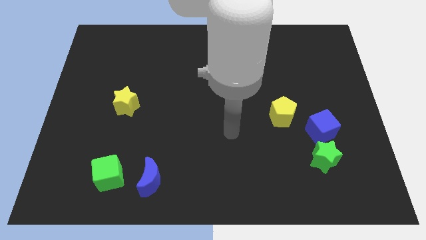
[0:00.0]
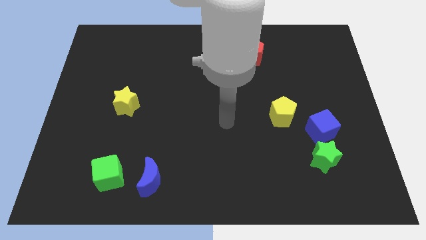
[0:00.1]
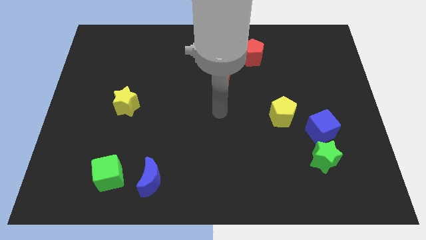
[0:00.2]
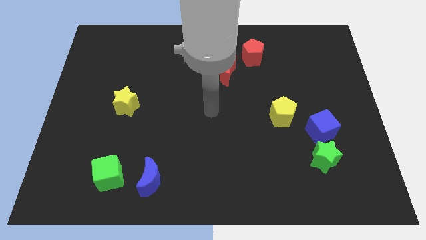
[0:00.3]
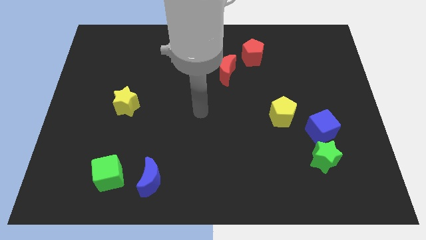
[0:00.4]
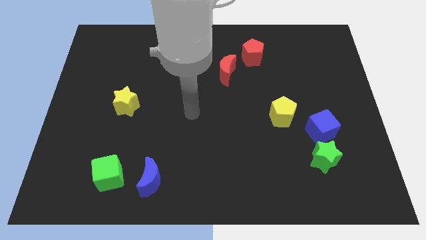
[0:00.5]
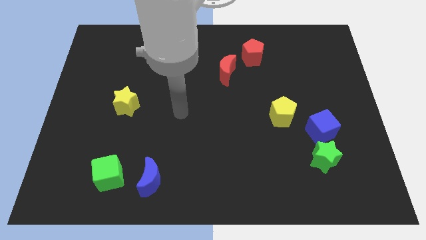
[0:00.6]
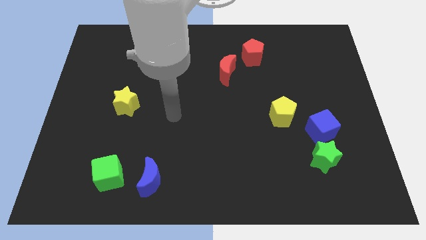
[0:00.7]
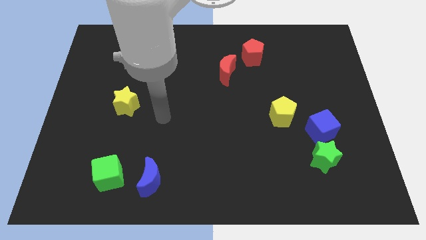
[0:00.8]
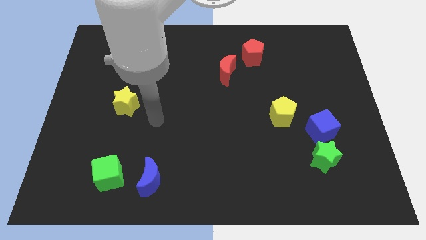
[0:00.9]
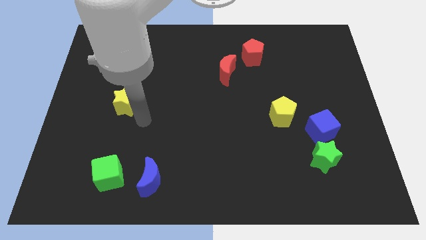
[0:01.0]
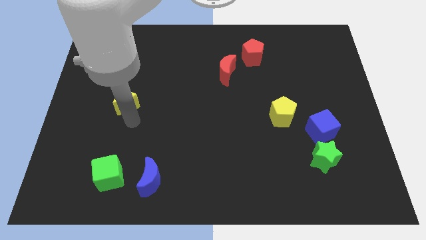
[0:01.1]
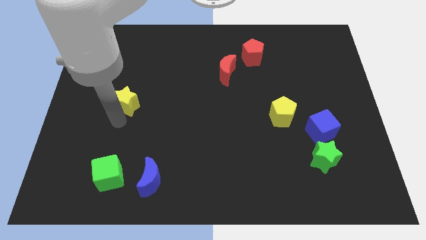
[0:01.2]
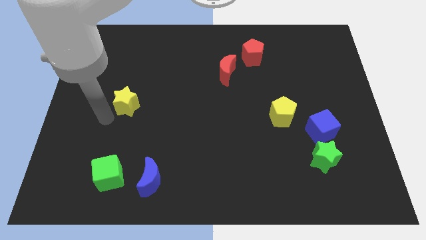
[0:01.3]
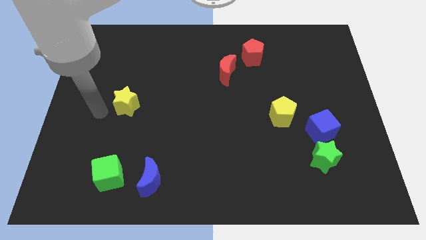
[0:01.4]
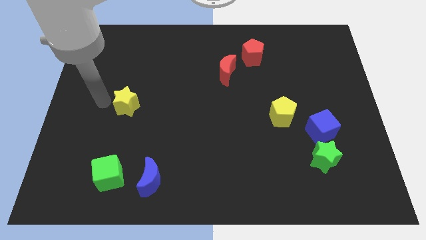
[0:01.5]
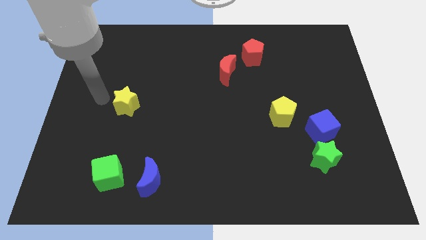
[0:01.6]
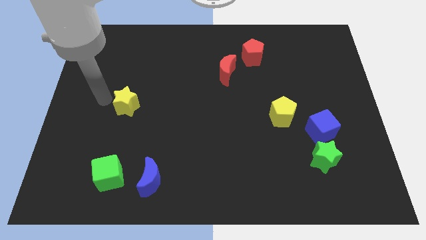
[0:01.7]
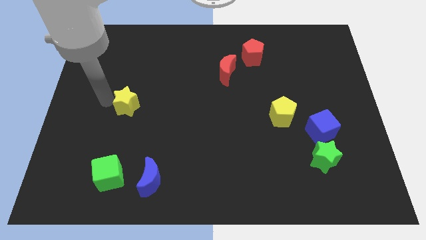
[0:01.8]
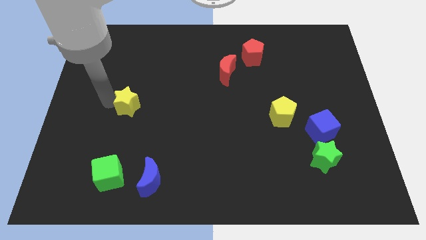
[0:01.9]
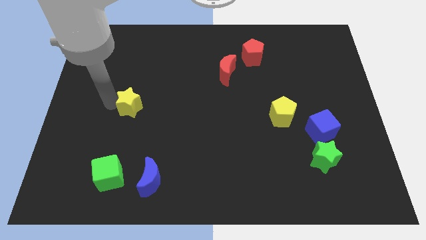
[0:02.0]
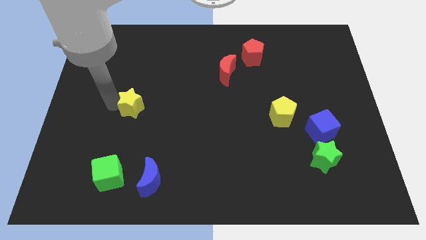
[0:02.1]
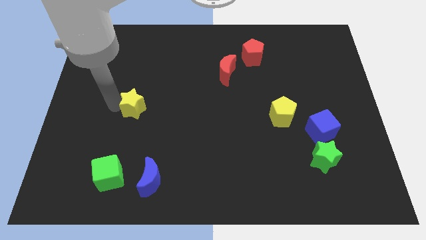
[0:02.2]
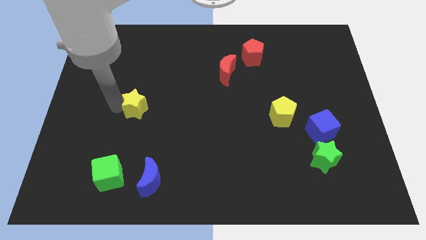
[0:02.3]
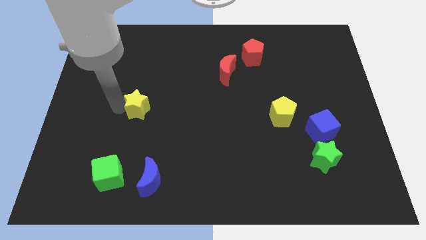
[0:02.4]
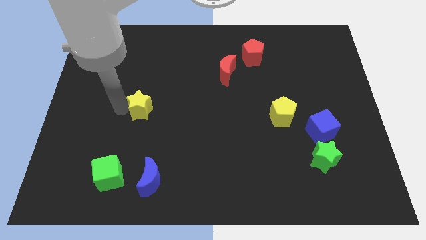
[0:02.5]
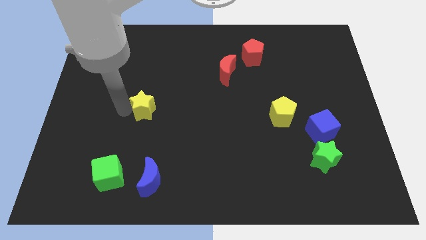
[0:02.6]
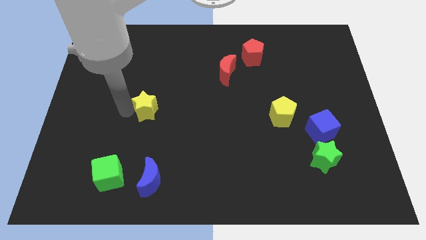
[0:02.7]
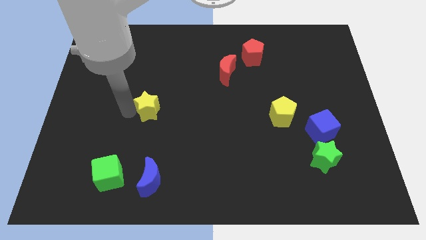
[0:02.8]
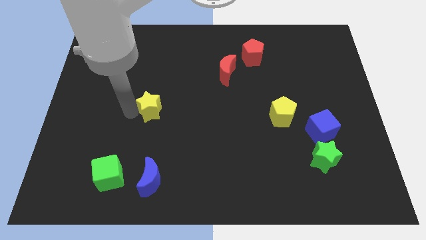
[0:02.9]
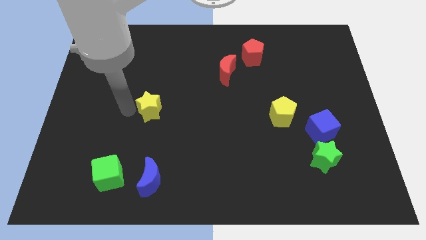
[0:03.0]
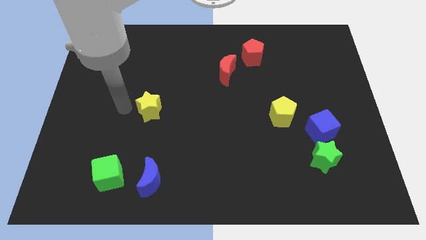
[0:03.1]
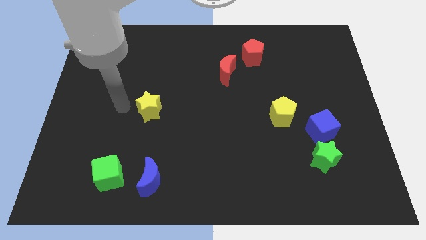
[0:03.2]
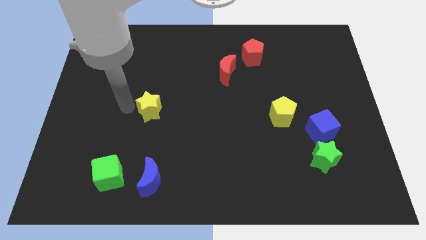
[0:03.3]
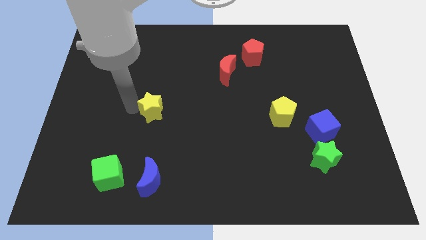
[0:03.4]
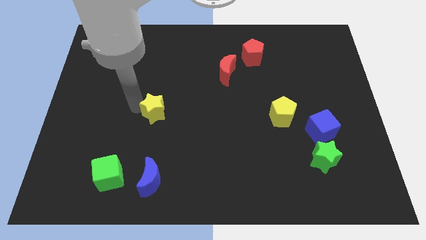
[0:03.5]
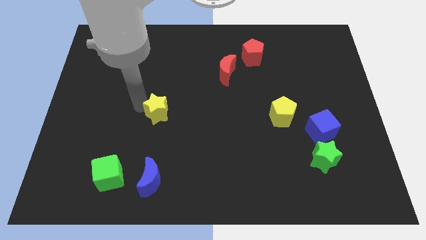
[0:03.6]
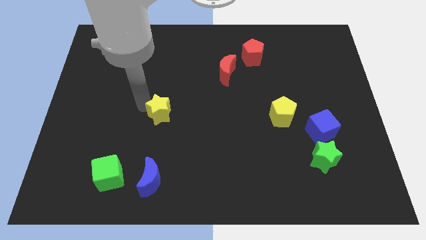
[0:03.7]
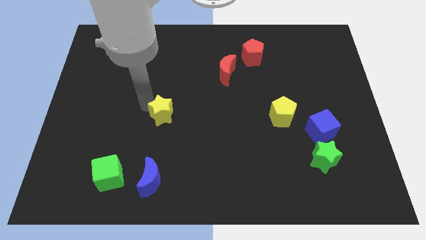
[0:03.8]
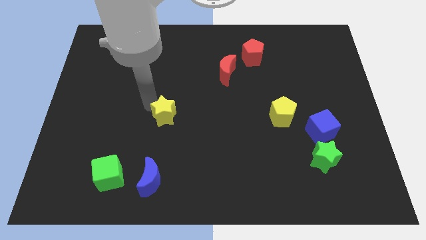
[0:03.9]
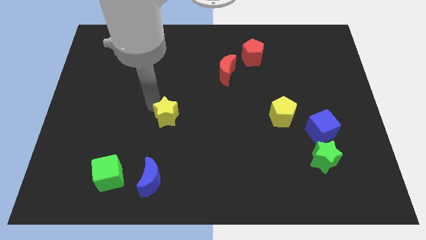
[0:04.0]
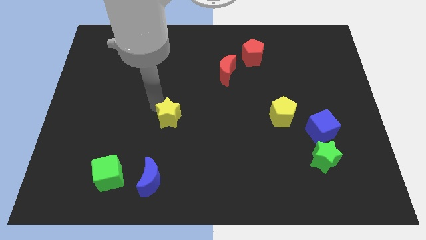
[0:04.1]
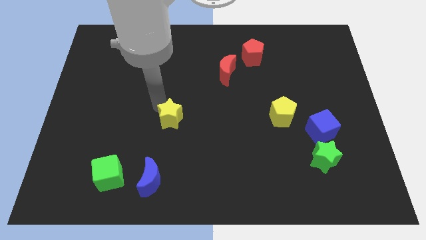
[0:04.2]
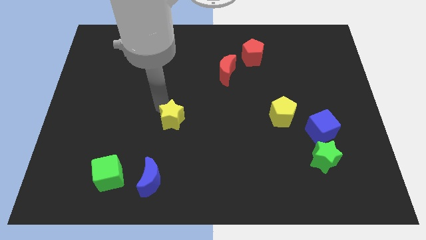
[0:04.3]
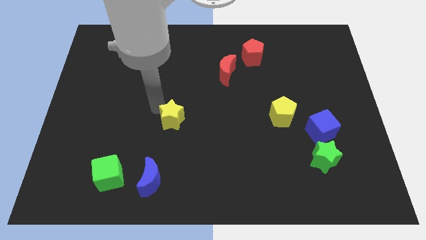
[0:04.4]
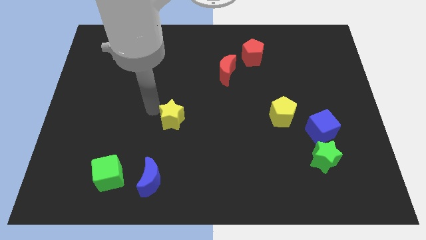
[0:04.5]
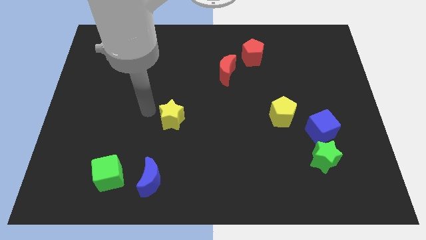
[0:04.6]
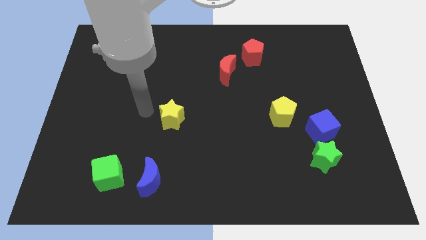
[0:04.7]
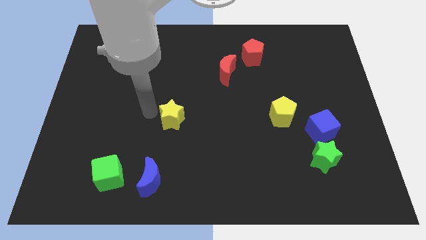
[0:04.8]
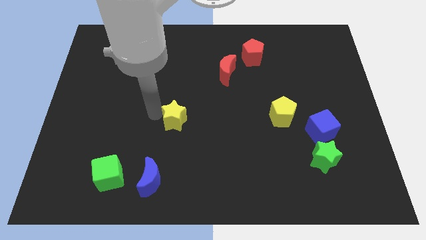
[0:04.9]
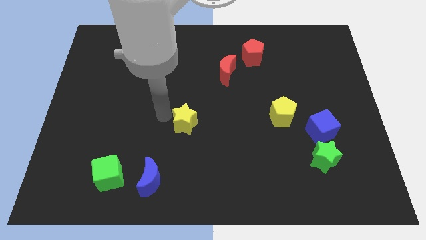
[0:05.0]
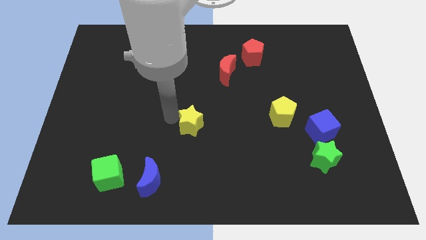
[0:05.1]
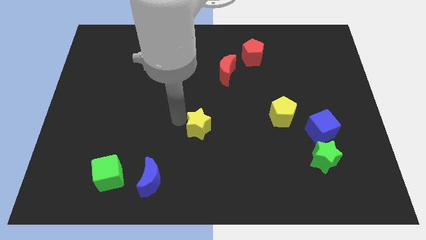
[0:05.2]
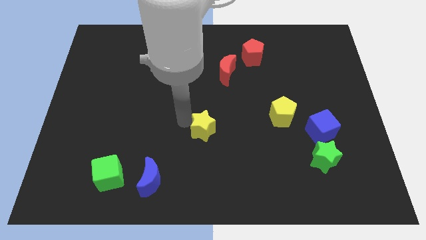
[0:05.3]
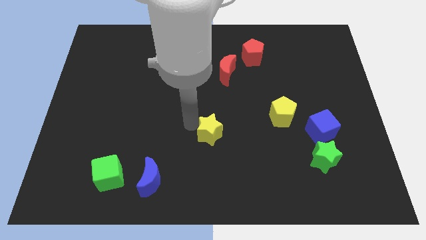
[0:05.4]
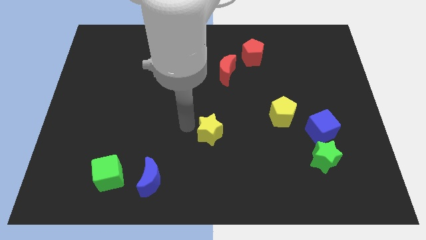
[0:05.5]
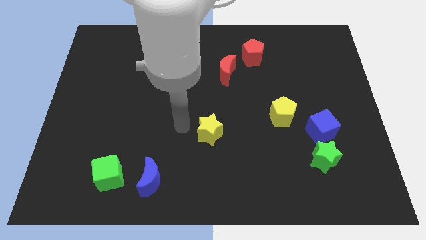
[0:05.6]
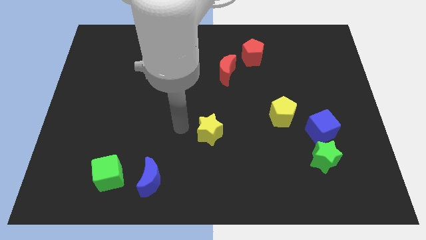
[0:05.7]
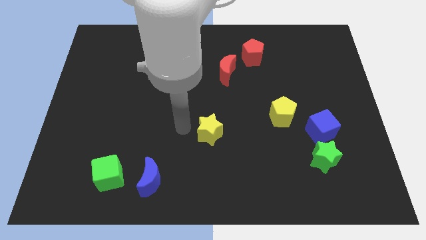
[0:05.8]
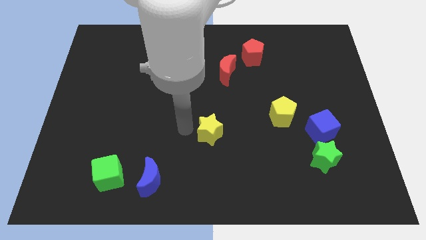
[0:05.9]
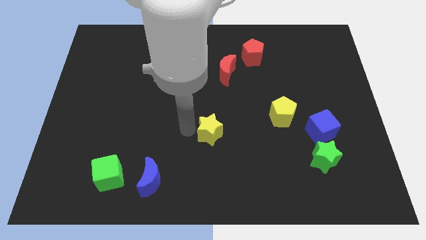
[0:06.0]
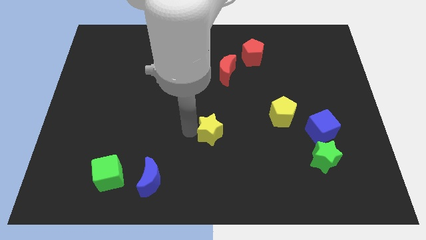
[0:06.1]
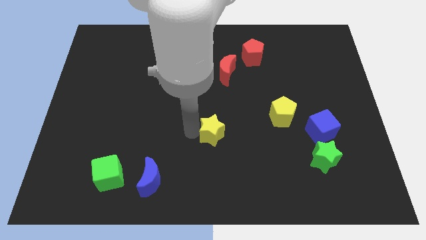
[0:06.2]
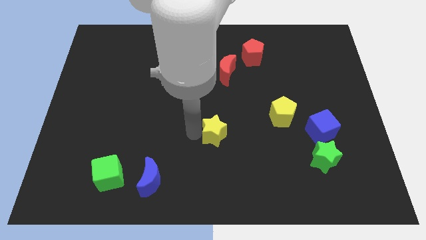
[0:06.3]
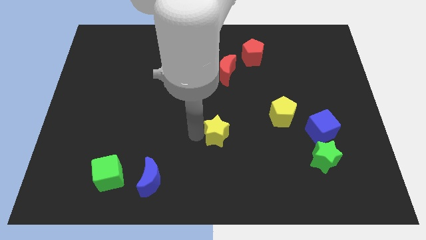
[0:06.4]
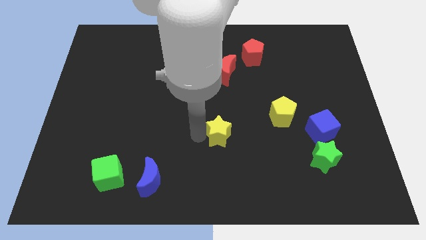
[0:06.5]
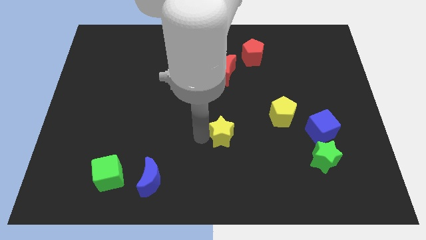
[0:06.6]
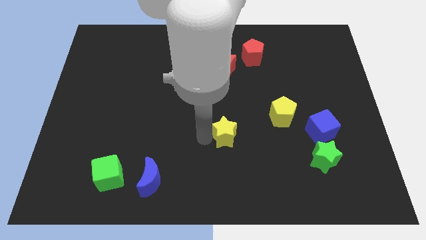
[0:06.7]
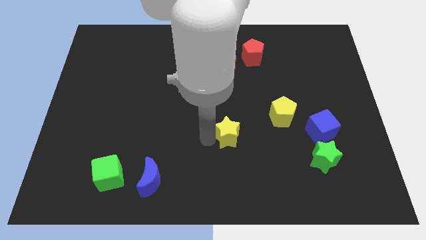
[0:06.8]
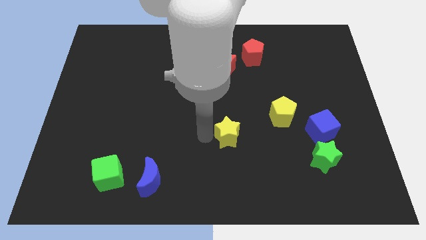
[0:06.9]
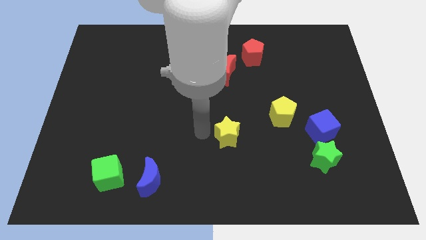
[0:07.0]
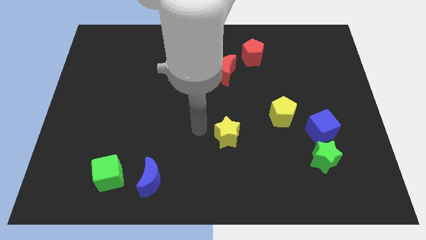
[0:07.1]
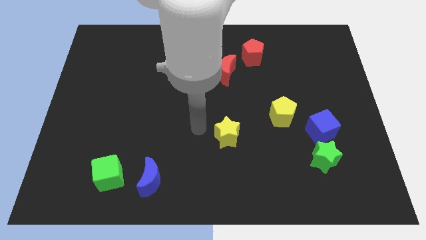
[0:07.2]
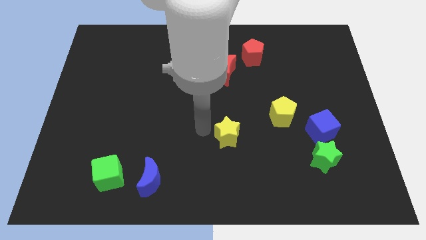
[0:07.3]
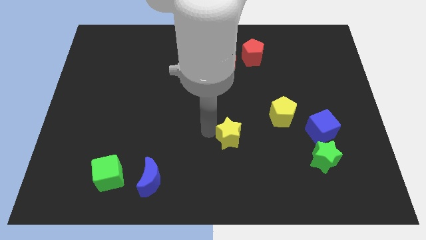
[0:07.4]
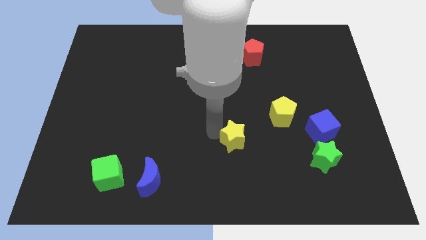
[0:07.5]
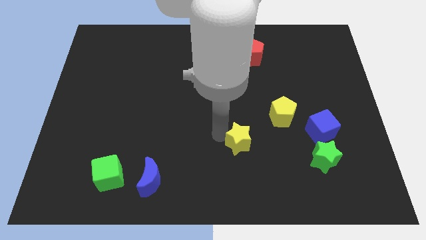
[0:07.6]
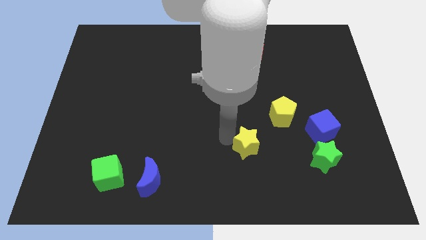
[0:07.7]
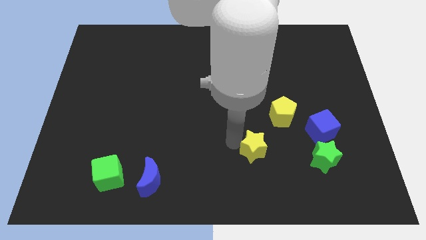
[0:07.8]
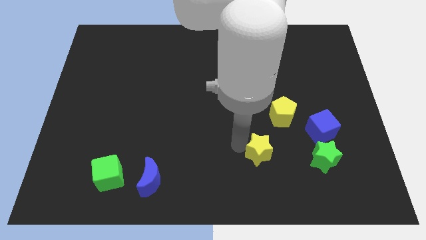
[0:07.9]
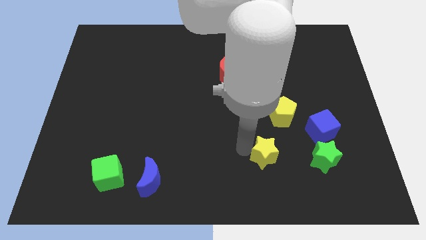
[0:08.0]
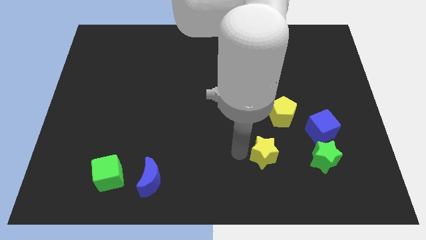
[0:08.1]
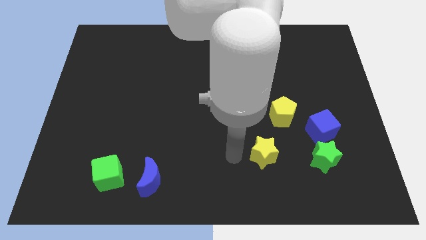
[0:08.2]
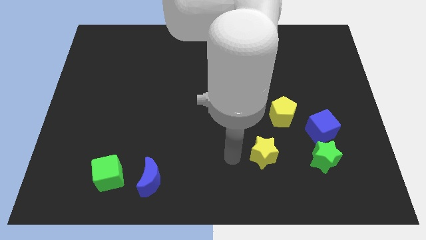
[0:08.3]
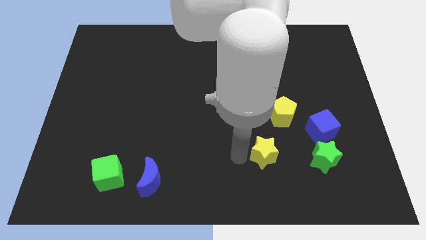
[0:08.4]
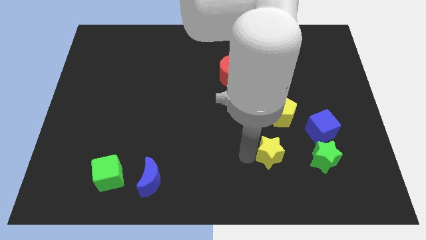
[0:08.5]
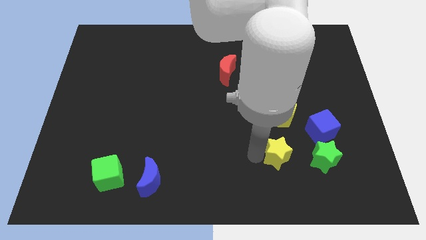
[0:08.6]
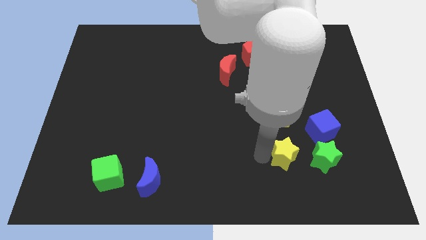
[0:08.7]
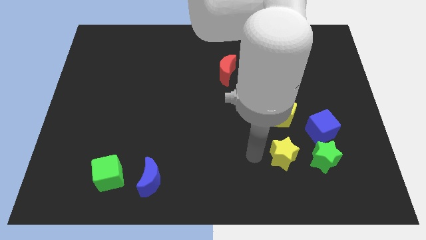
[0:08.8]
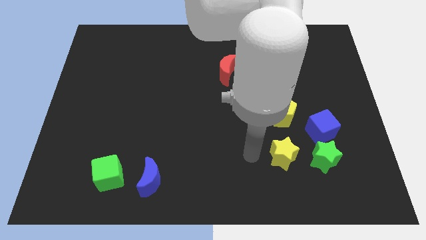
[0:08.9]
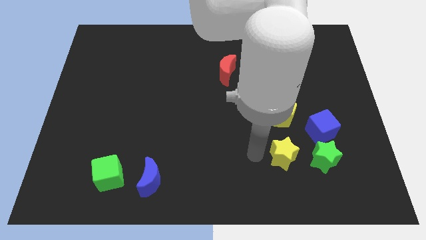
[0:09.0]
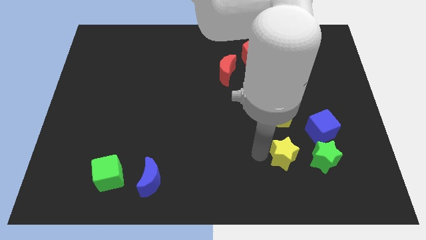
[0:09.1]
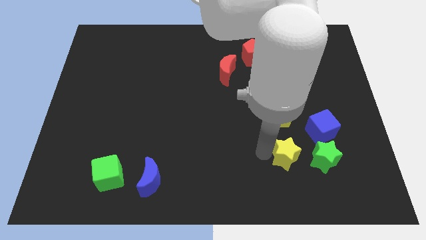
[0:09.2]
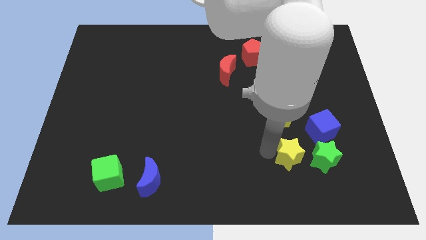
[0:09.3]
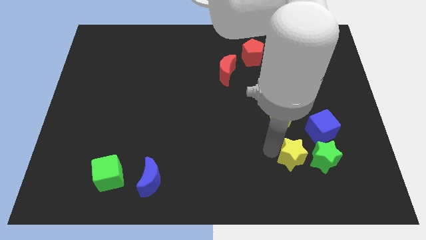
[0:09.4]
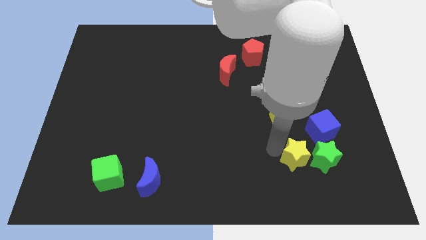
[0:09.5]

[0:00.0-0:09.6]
put the yellow star next to the green star
